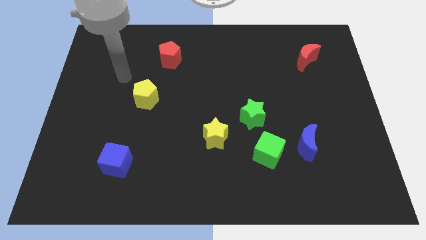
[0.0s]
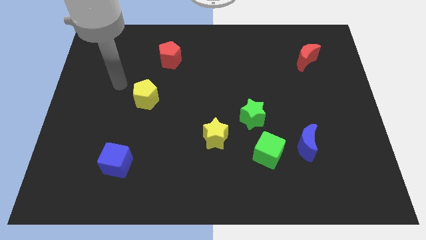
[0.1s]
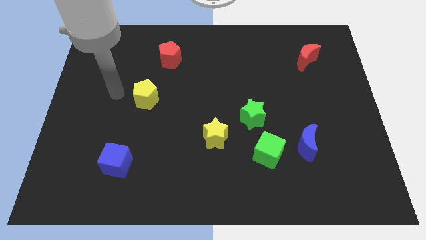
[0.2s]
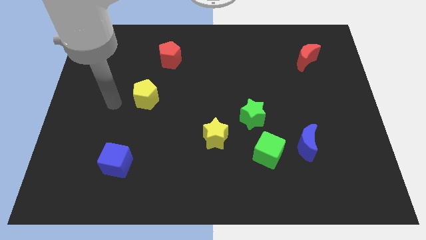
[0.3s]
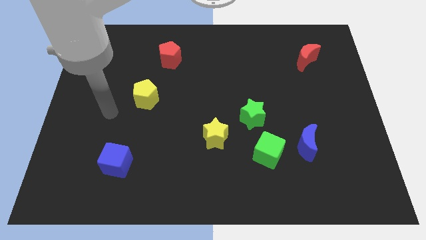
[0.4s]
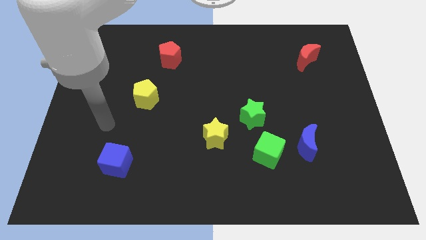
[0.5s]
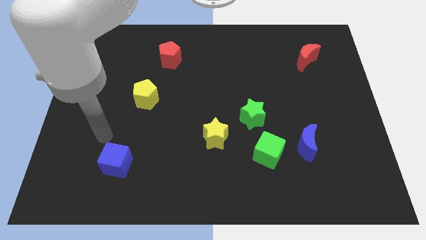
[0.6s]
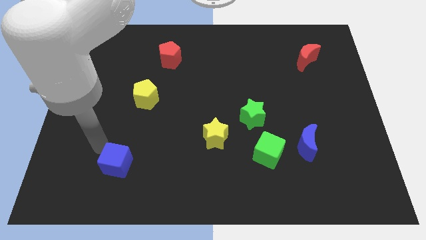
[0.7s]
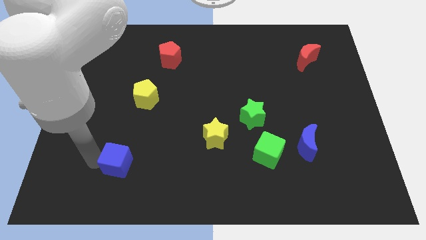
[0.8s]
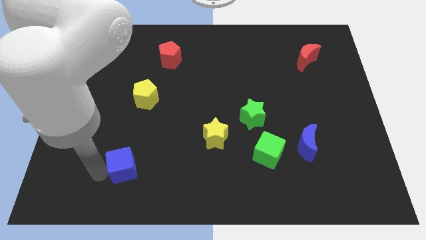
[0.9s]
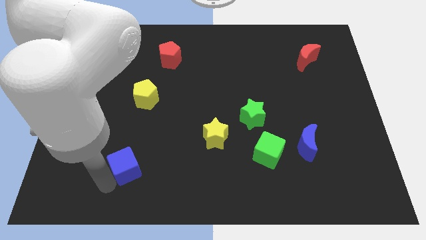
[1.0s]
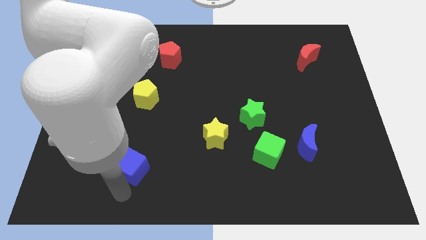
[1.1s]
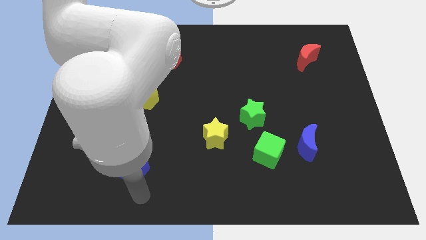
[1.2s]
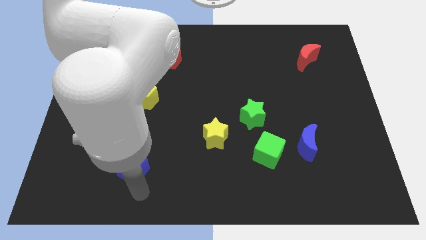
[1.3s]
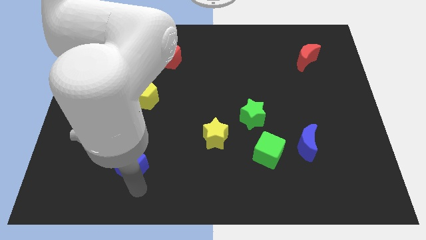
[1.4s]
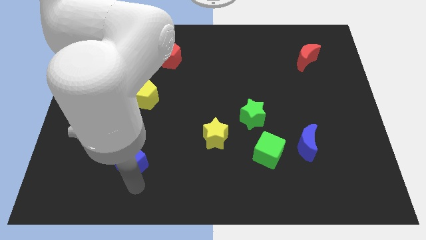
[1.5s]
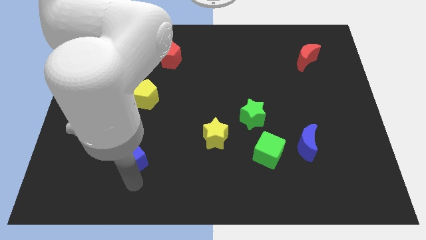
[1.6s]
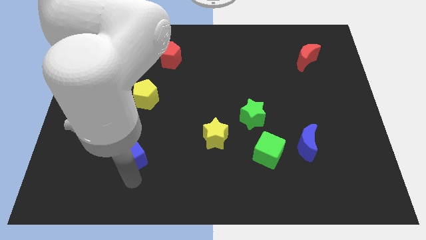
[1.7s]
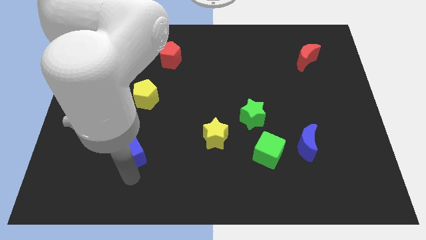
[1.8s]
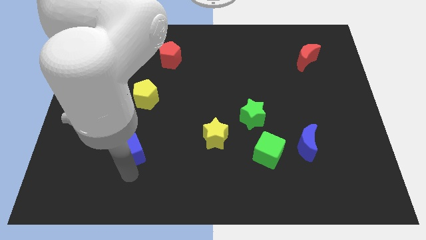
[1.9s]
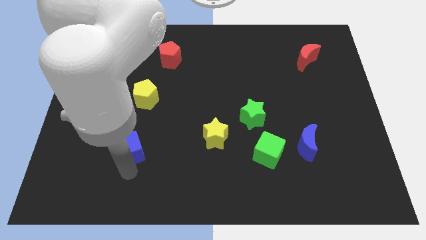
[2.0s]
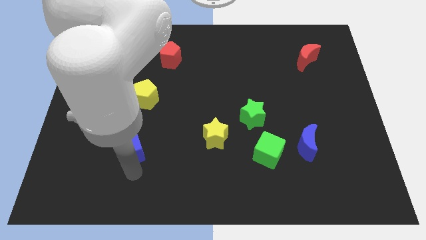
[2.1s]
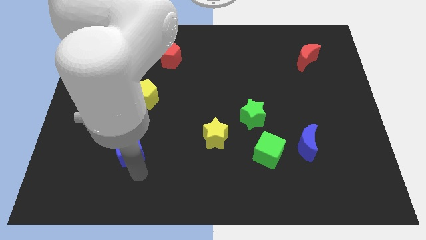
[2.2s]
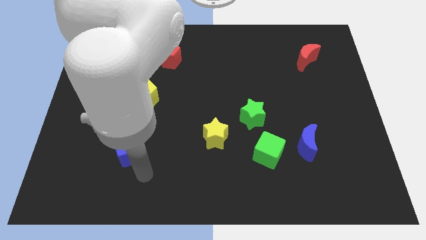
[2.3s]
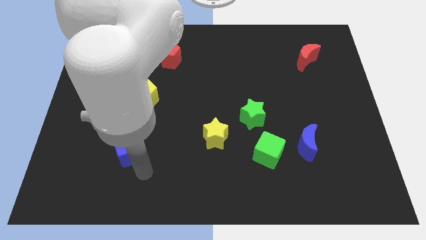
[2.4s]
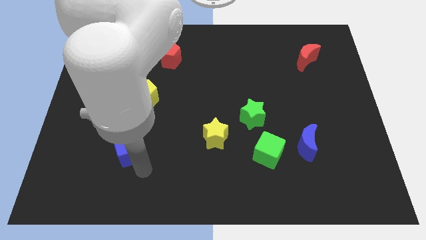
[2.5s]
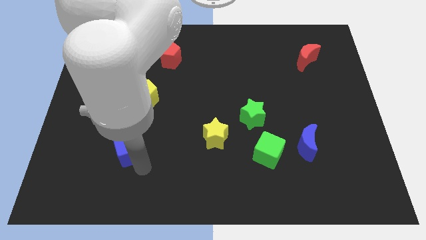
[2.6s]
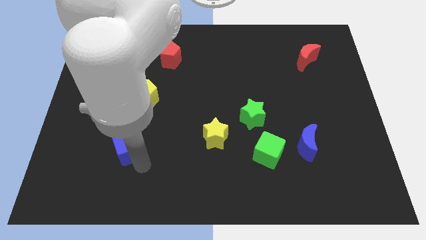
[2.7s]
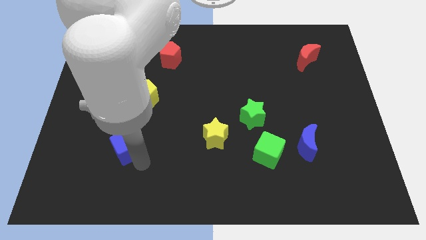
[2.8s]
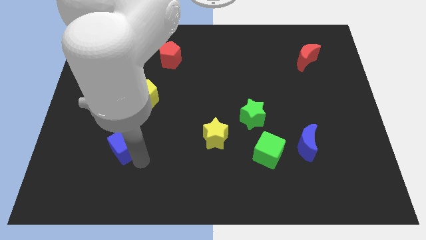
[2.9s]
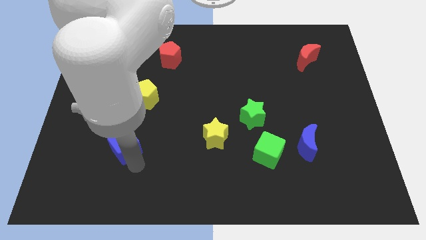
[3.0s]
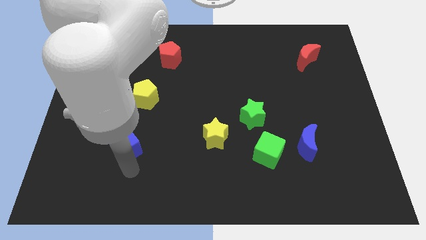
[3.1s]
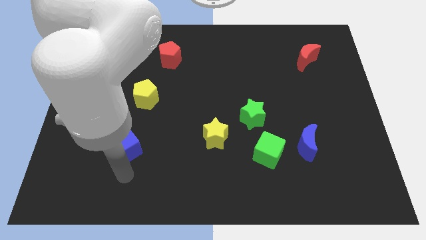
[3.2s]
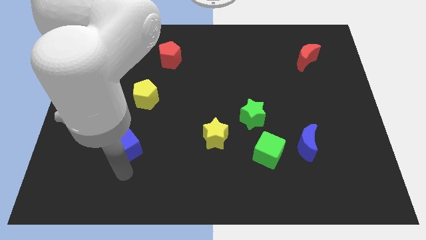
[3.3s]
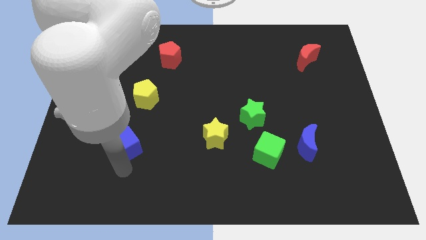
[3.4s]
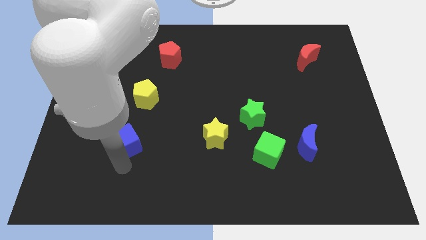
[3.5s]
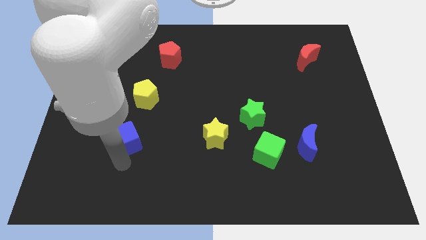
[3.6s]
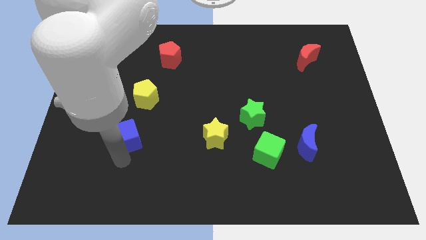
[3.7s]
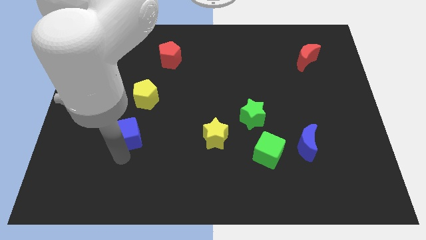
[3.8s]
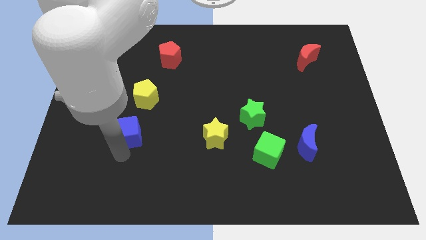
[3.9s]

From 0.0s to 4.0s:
slide the blue cube upwards slightly

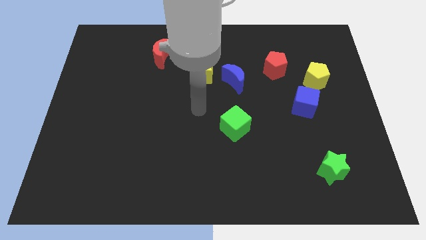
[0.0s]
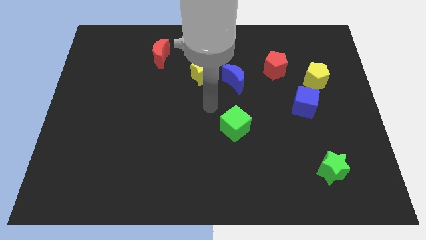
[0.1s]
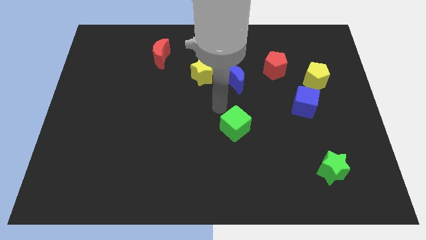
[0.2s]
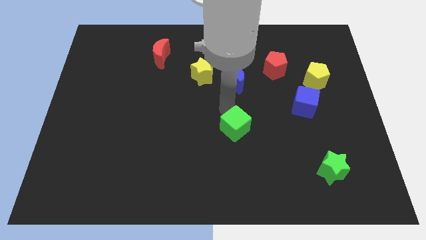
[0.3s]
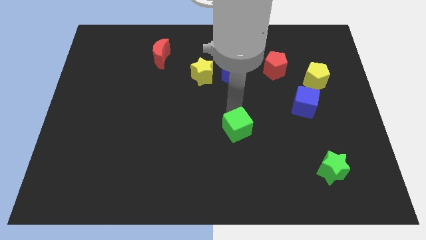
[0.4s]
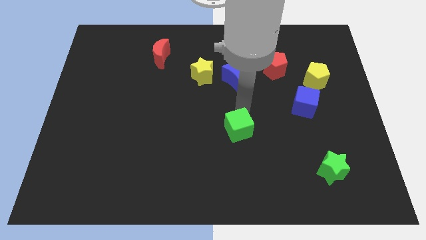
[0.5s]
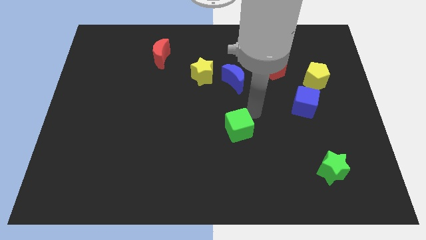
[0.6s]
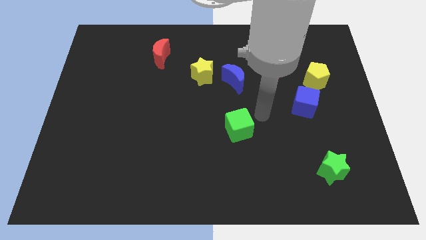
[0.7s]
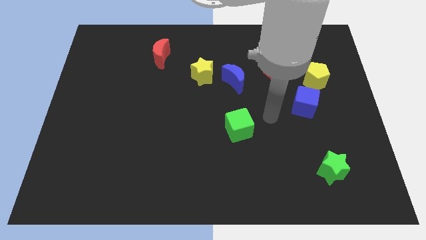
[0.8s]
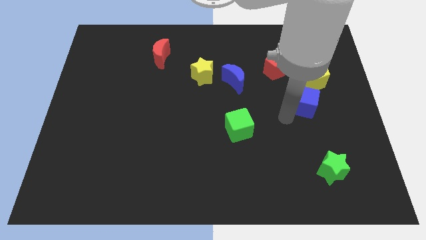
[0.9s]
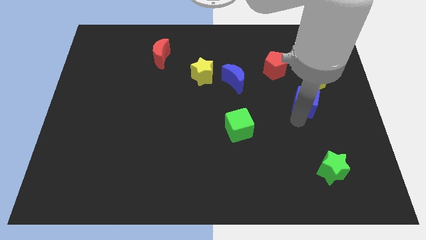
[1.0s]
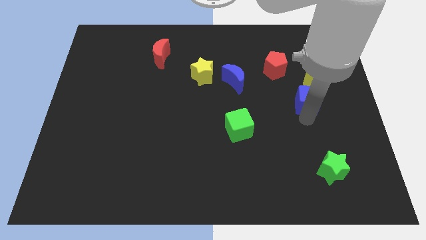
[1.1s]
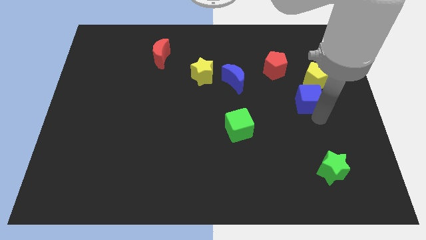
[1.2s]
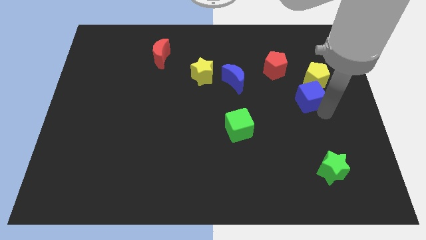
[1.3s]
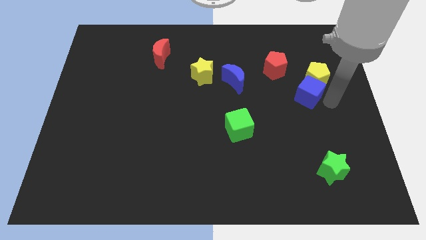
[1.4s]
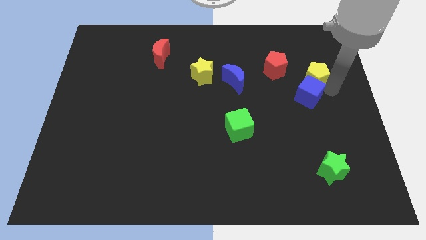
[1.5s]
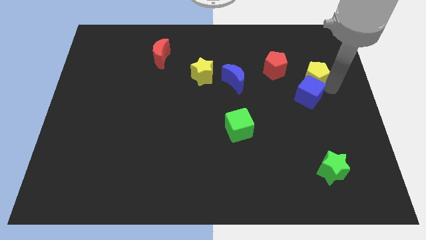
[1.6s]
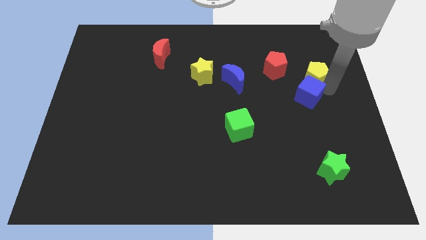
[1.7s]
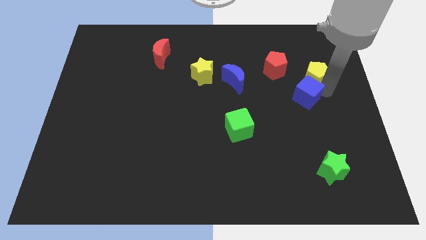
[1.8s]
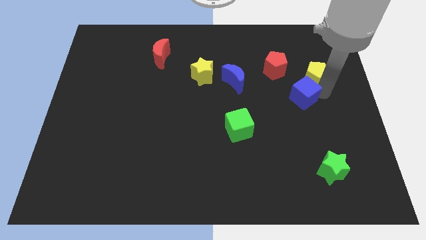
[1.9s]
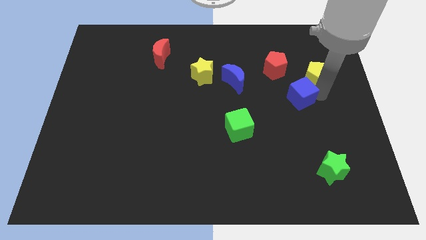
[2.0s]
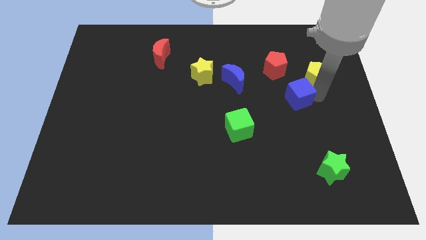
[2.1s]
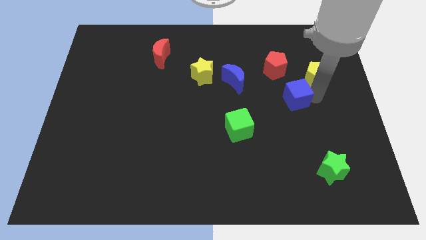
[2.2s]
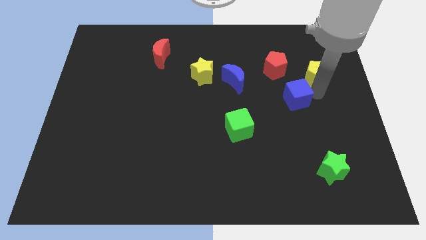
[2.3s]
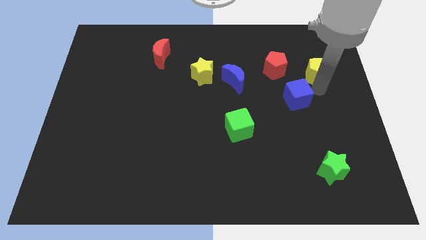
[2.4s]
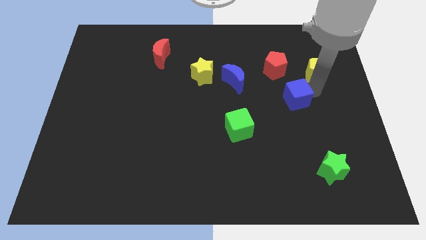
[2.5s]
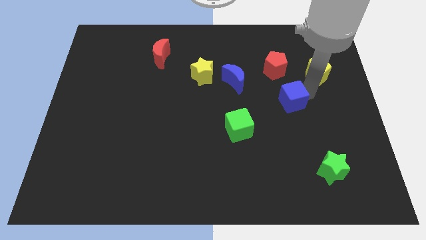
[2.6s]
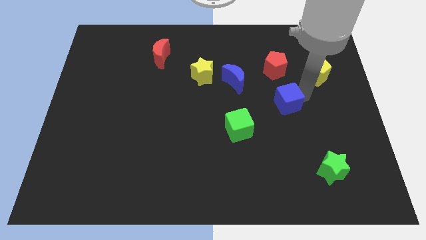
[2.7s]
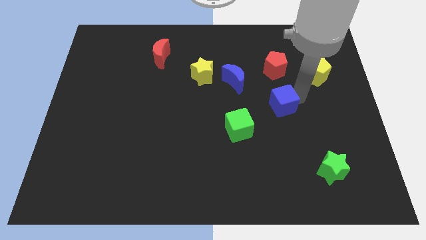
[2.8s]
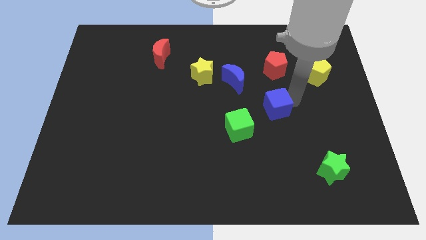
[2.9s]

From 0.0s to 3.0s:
slightly slide the blue cube to the left

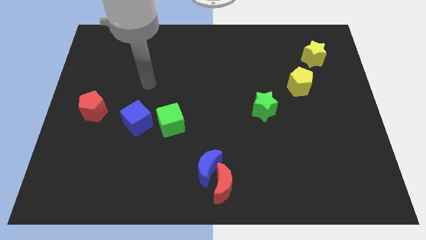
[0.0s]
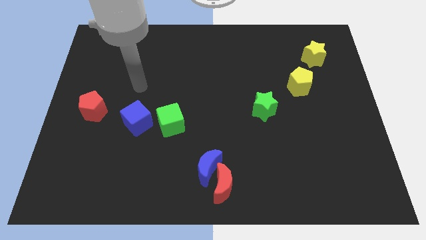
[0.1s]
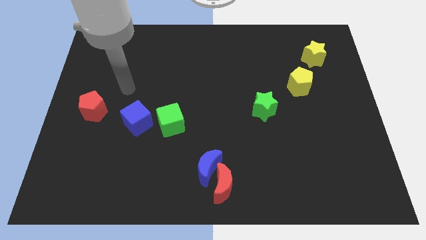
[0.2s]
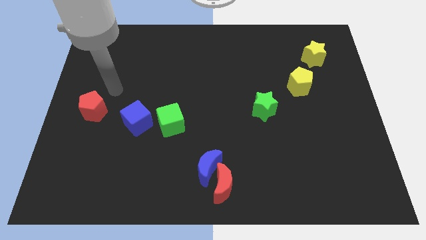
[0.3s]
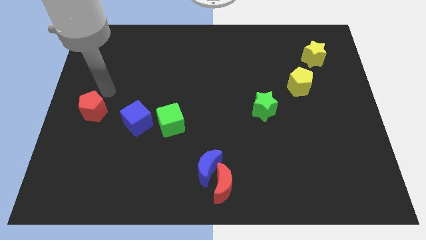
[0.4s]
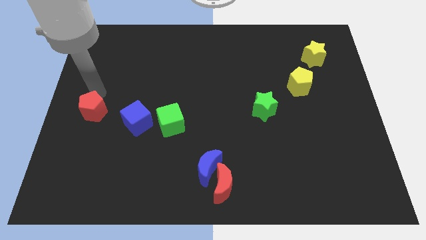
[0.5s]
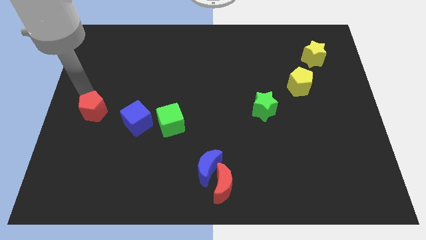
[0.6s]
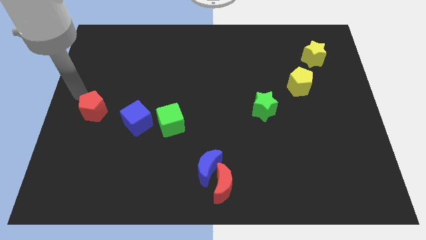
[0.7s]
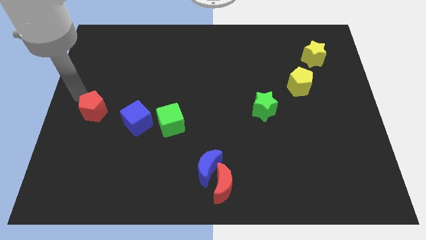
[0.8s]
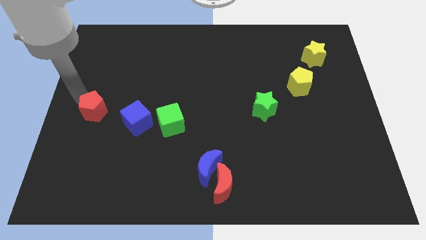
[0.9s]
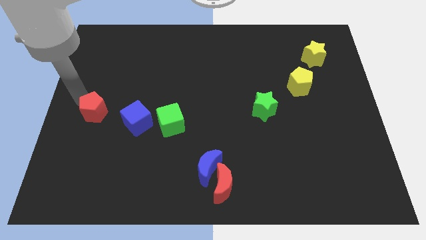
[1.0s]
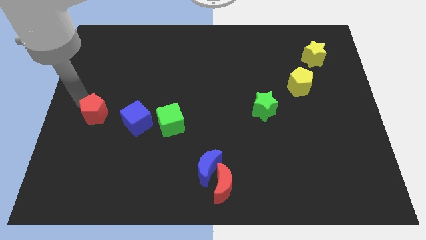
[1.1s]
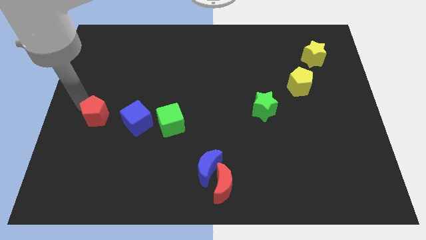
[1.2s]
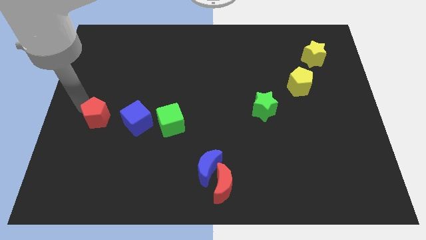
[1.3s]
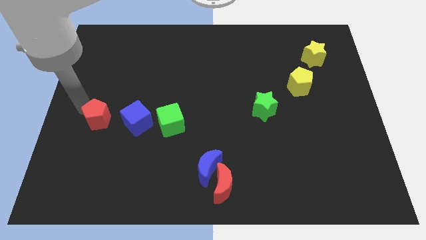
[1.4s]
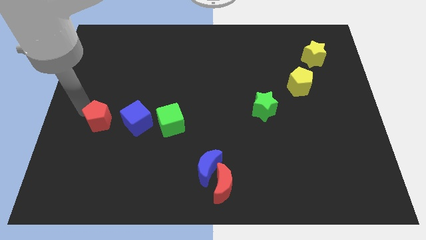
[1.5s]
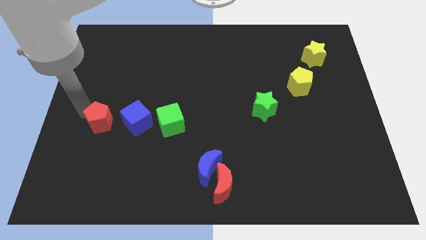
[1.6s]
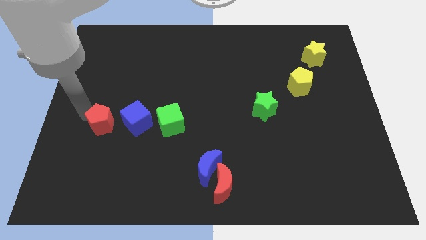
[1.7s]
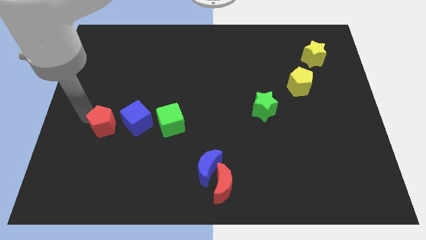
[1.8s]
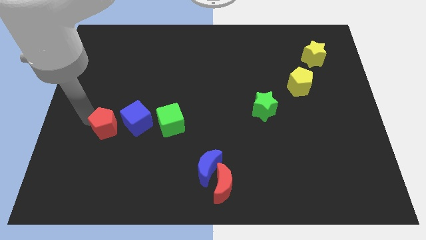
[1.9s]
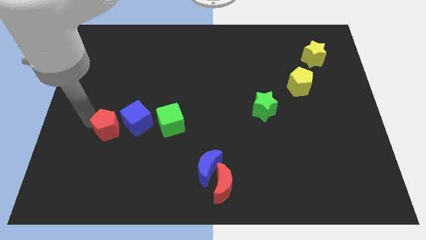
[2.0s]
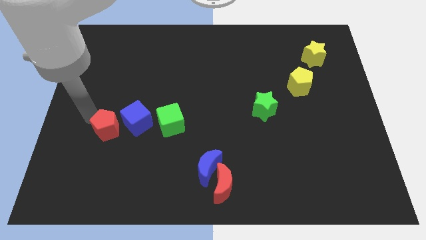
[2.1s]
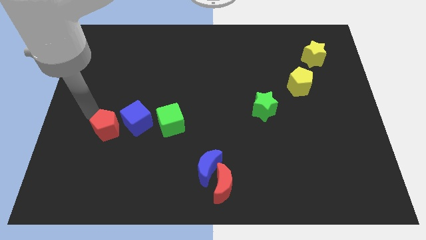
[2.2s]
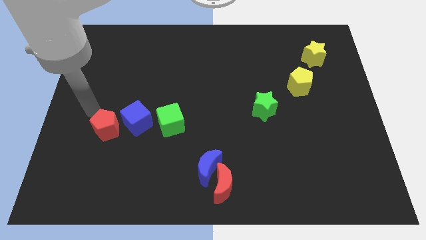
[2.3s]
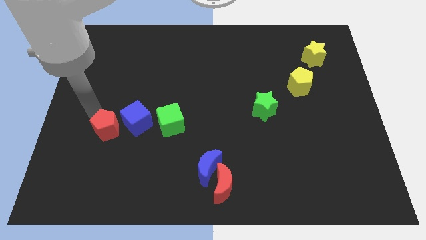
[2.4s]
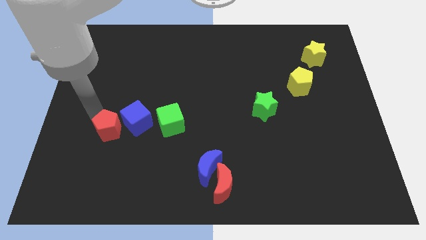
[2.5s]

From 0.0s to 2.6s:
move the red pentagon a bit down and then to the right
